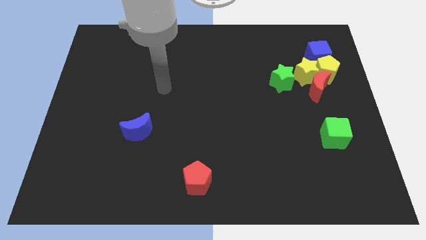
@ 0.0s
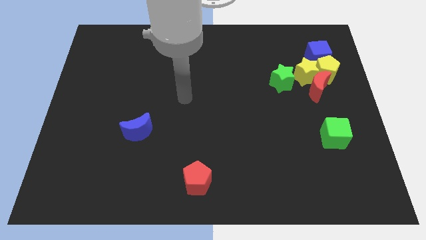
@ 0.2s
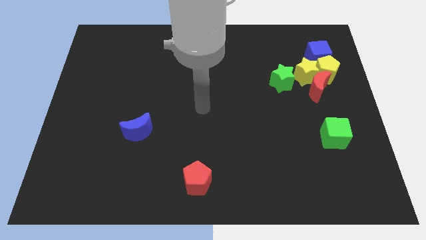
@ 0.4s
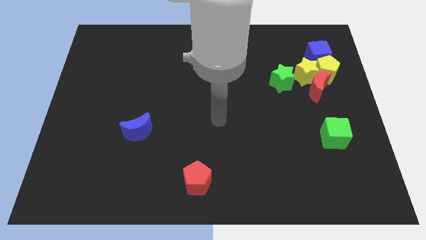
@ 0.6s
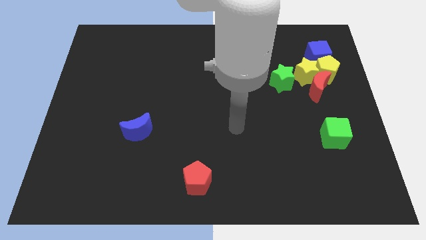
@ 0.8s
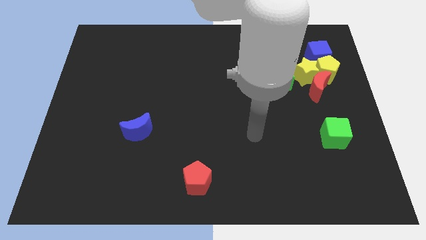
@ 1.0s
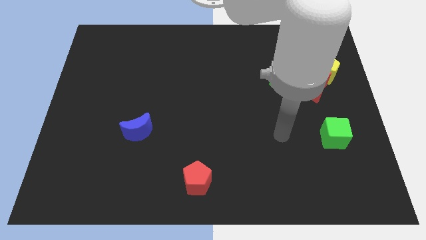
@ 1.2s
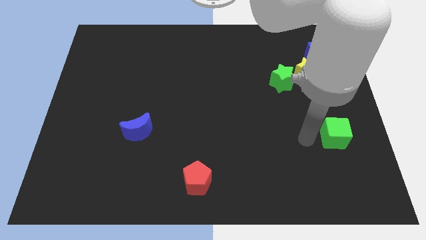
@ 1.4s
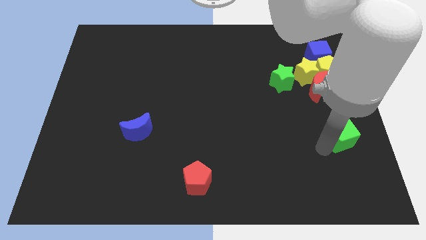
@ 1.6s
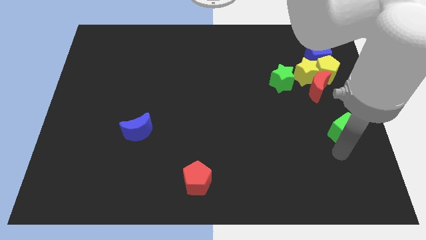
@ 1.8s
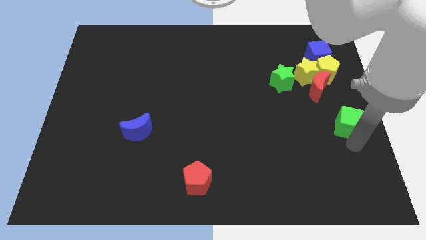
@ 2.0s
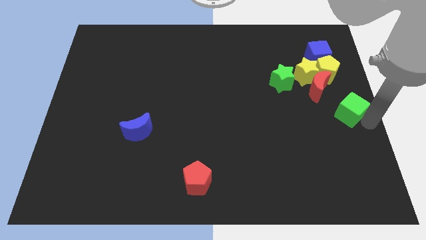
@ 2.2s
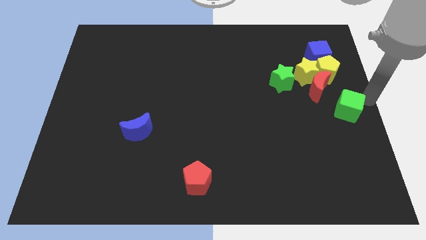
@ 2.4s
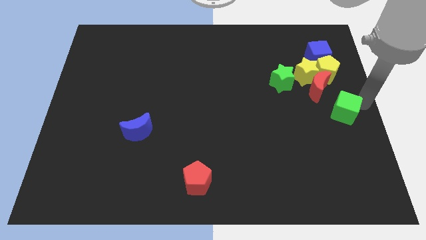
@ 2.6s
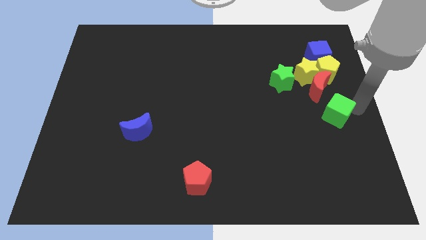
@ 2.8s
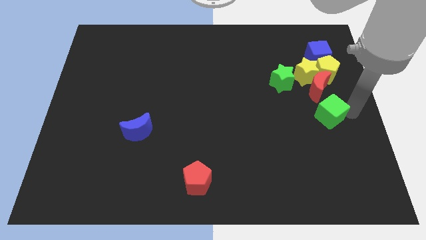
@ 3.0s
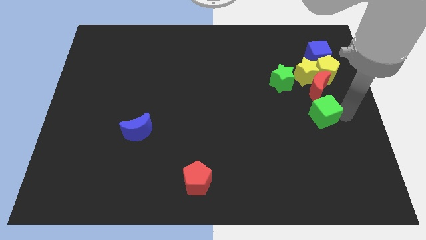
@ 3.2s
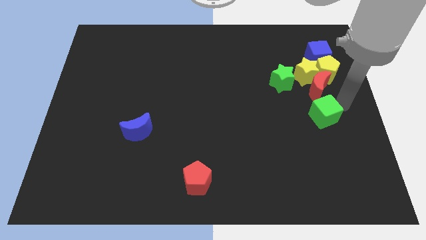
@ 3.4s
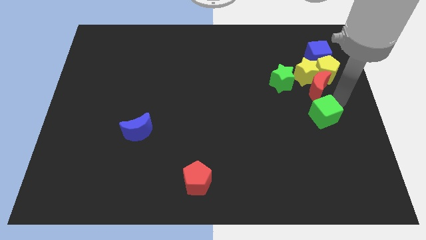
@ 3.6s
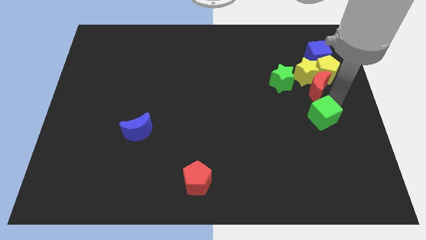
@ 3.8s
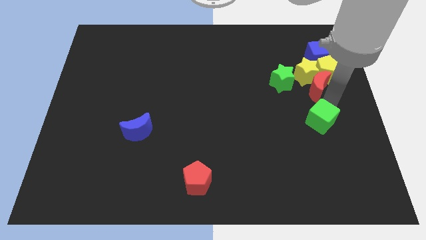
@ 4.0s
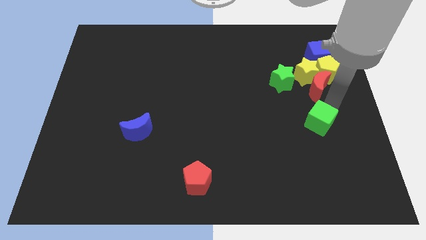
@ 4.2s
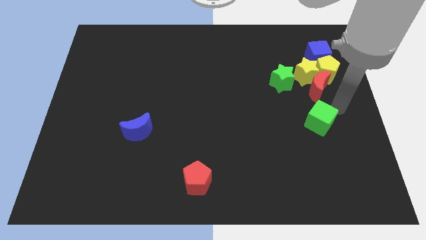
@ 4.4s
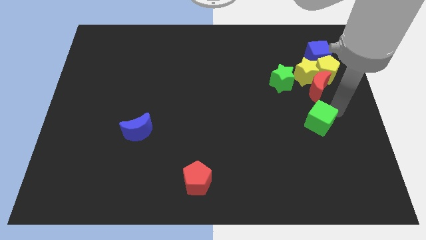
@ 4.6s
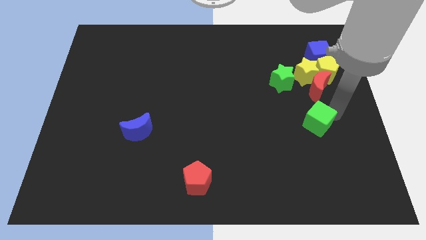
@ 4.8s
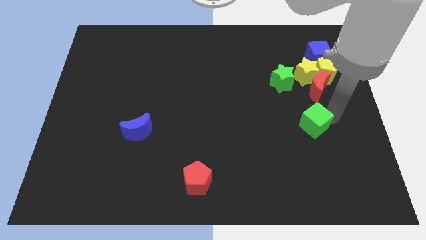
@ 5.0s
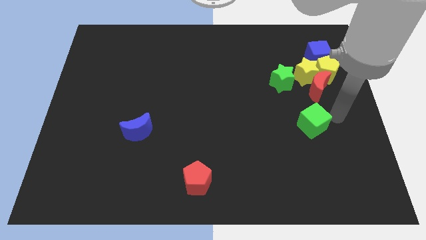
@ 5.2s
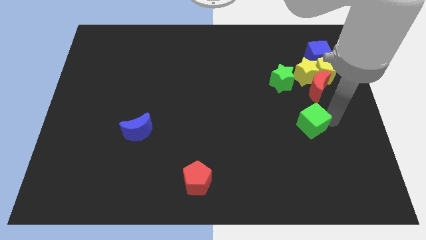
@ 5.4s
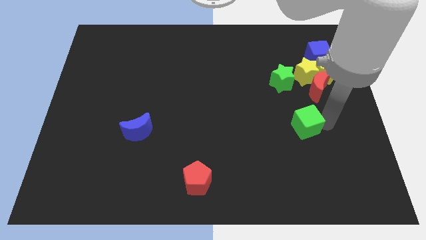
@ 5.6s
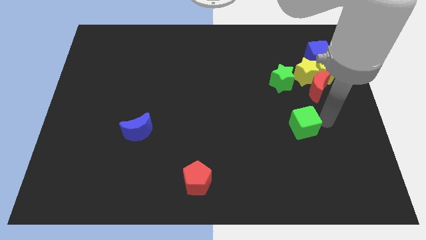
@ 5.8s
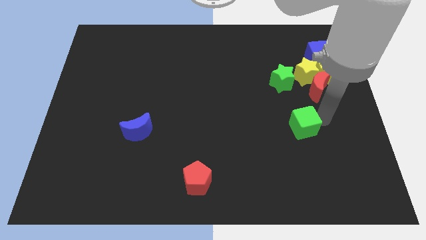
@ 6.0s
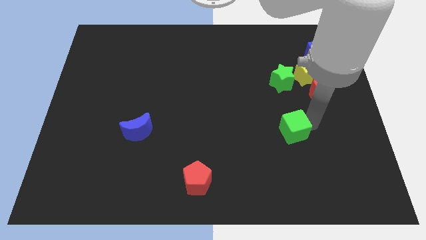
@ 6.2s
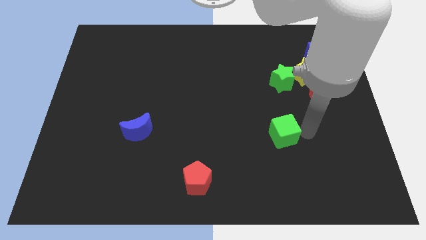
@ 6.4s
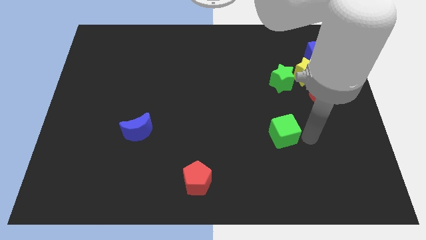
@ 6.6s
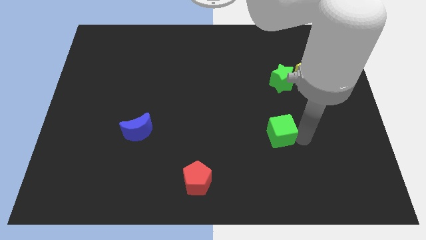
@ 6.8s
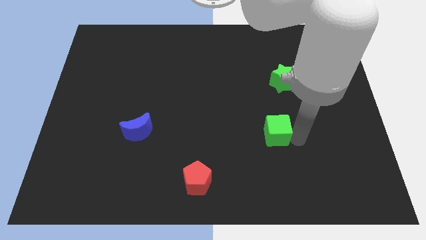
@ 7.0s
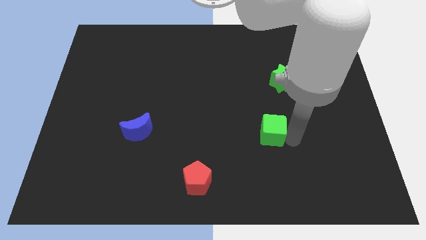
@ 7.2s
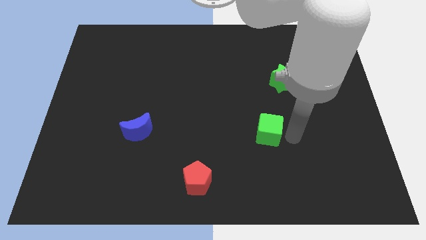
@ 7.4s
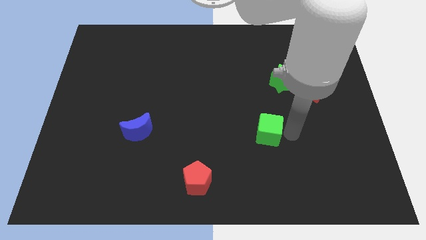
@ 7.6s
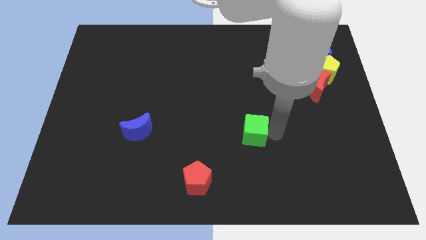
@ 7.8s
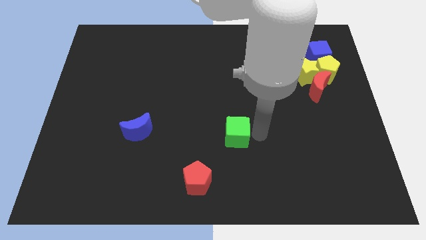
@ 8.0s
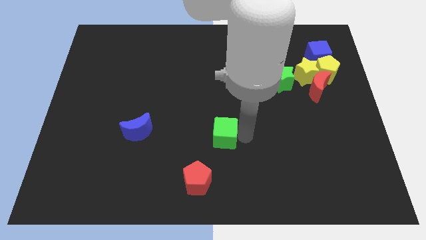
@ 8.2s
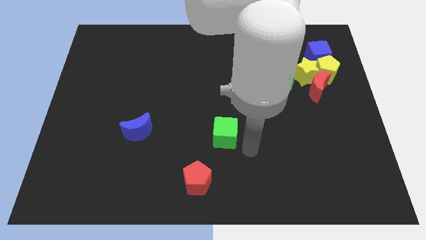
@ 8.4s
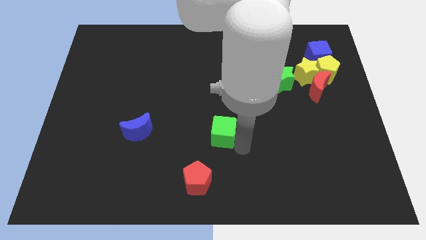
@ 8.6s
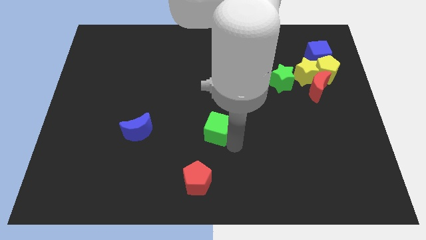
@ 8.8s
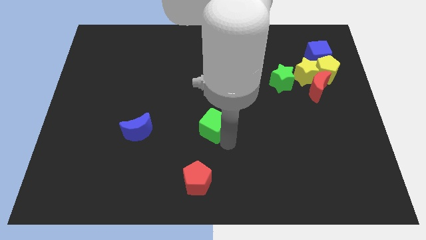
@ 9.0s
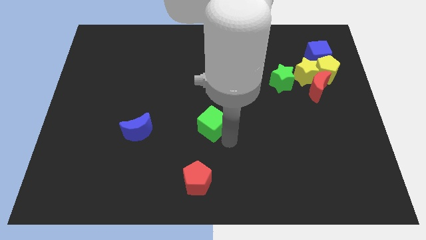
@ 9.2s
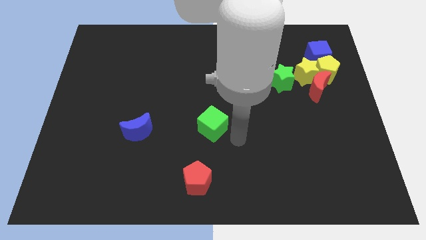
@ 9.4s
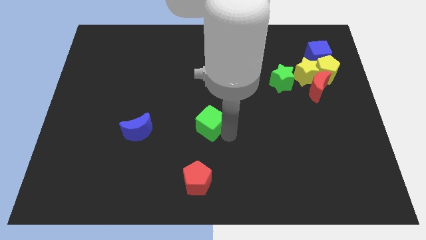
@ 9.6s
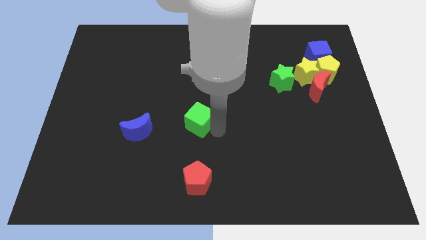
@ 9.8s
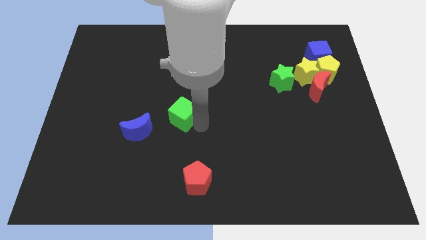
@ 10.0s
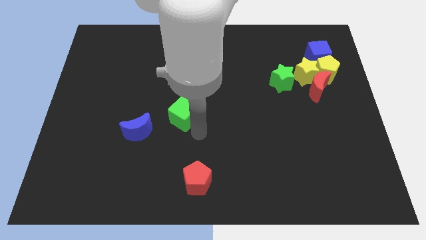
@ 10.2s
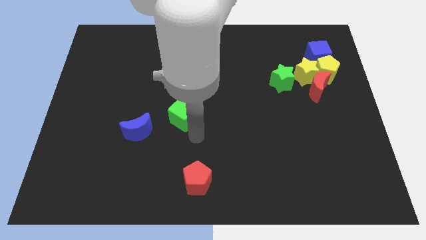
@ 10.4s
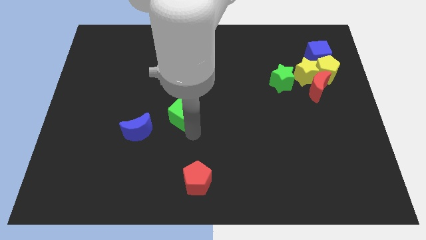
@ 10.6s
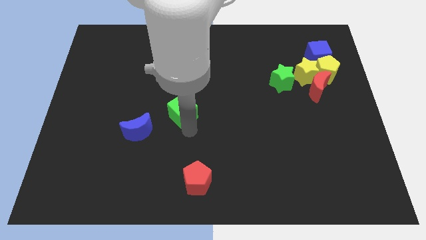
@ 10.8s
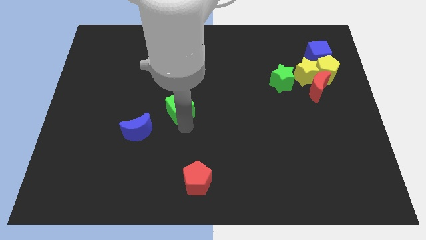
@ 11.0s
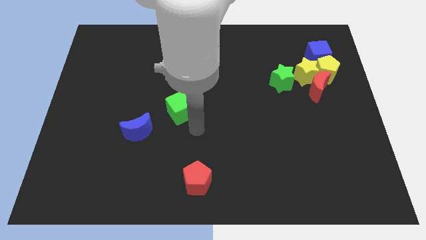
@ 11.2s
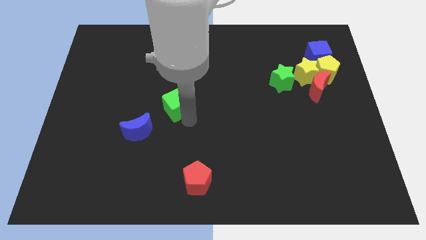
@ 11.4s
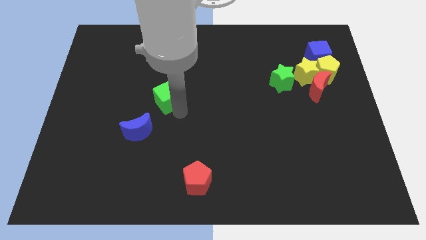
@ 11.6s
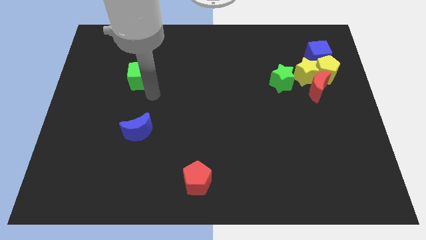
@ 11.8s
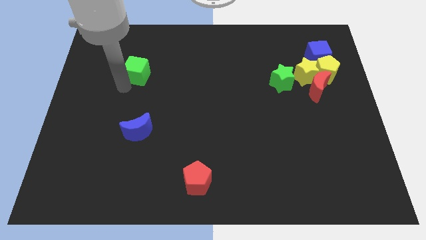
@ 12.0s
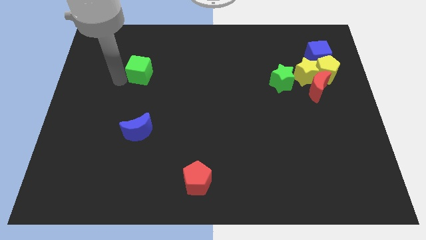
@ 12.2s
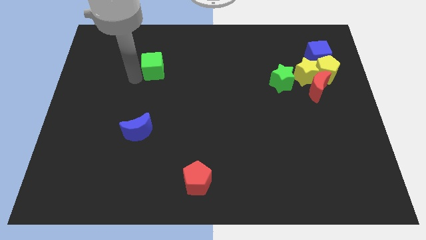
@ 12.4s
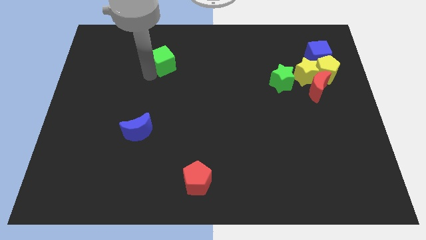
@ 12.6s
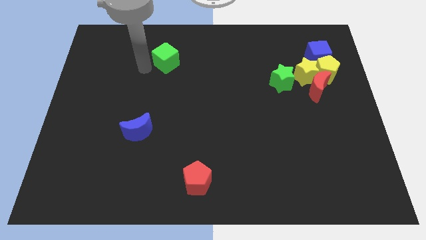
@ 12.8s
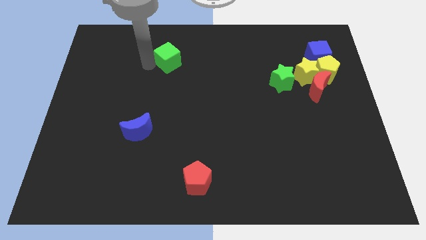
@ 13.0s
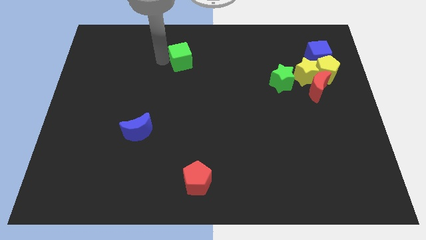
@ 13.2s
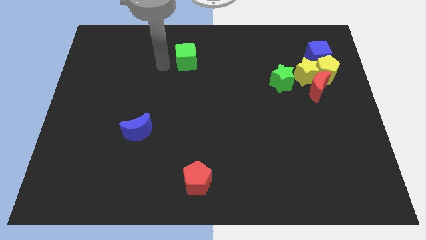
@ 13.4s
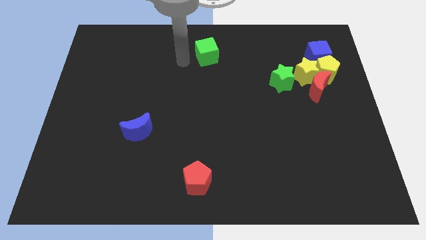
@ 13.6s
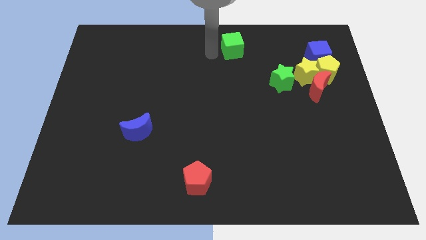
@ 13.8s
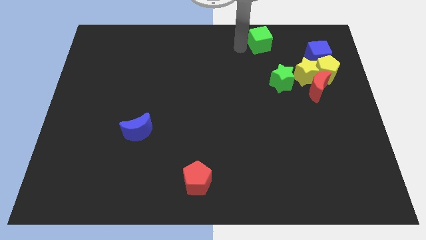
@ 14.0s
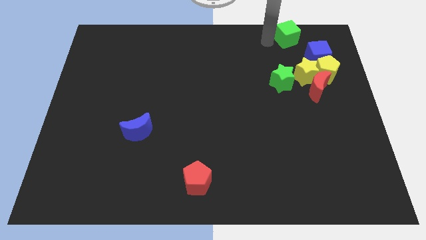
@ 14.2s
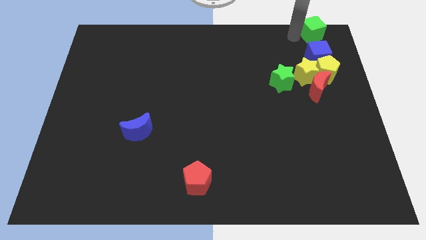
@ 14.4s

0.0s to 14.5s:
move the green cube to the top right
